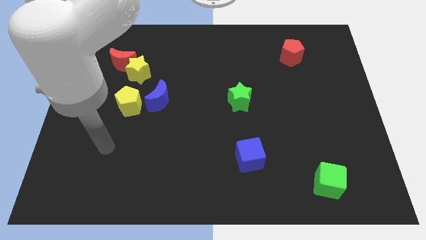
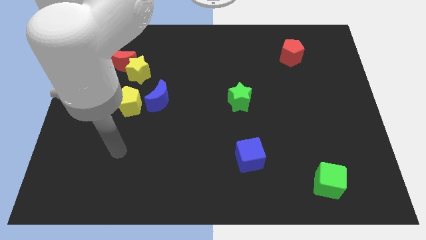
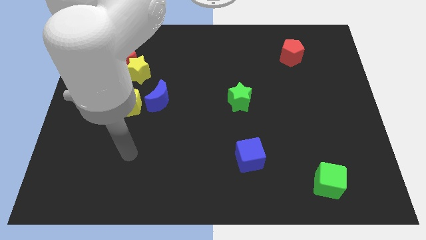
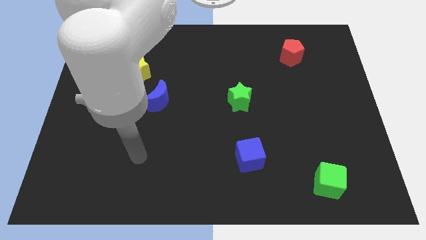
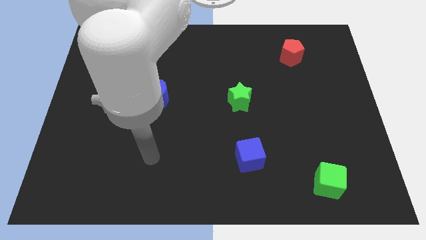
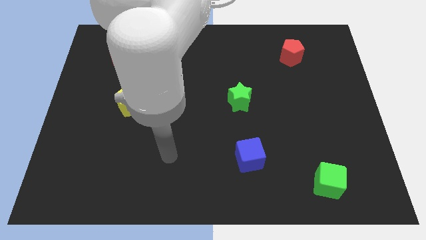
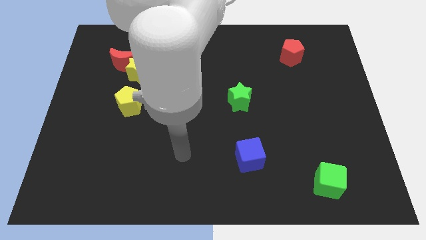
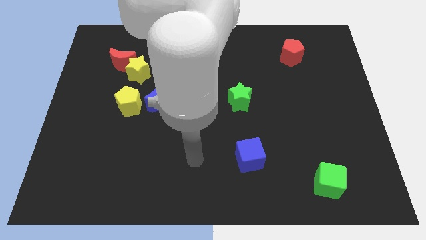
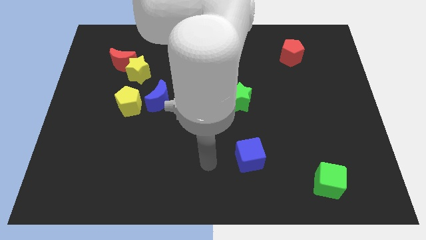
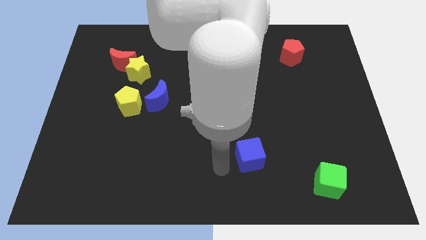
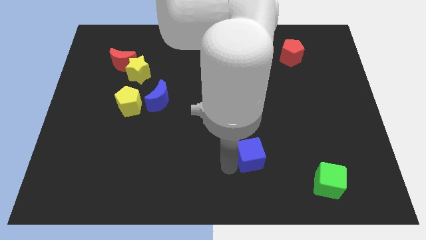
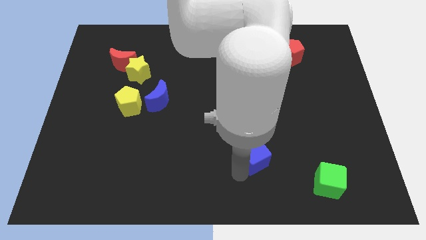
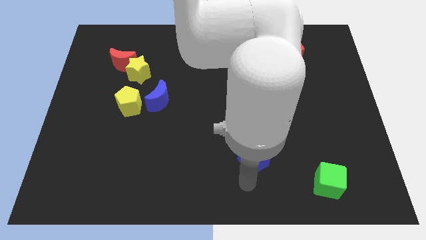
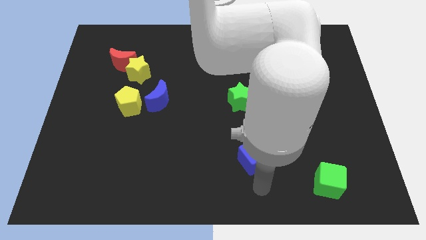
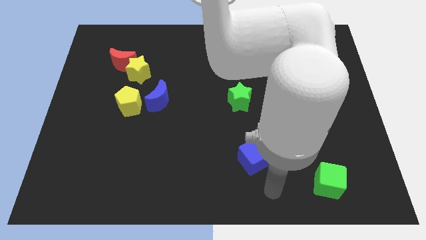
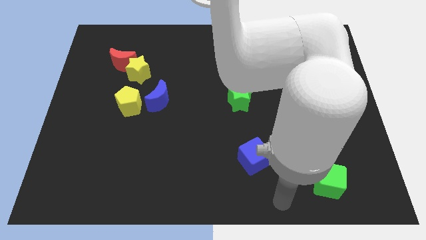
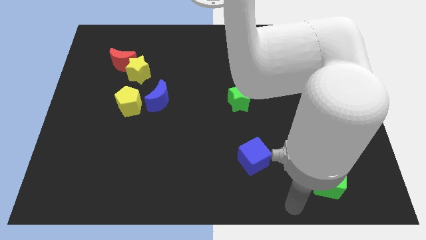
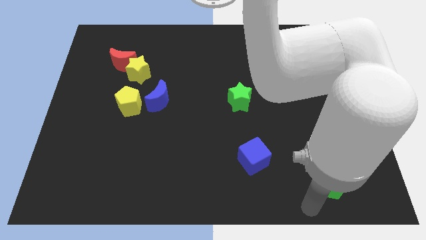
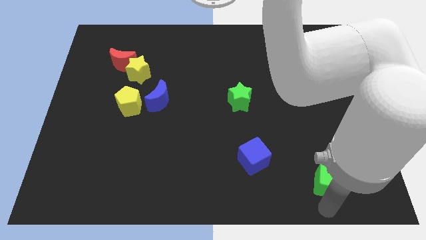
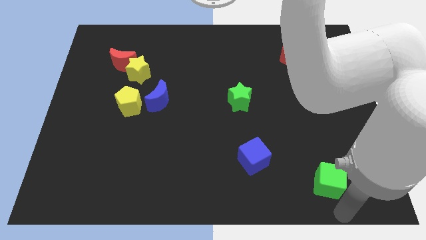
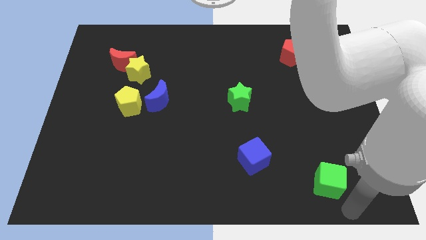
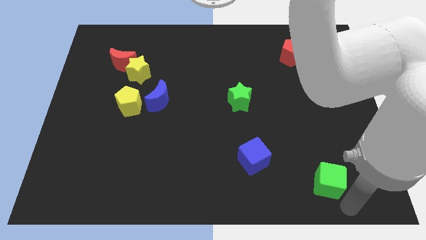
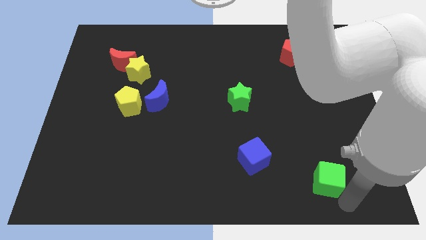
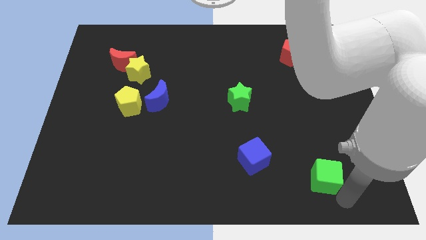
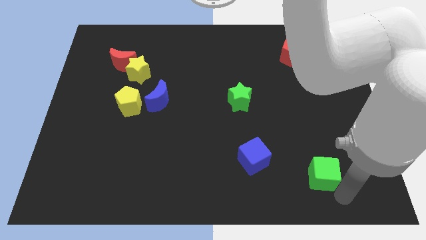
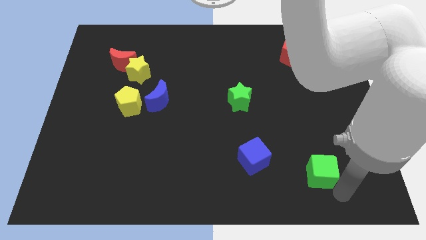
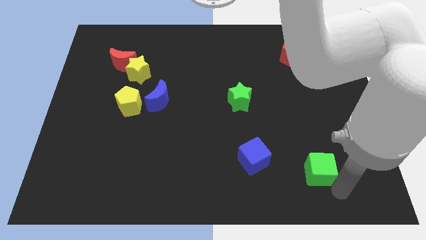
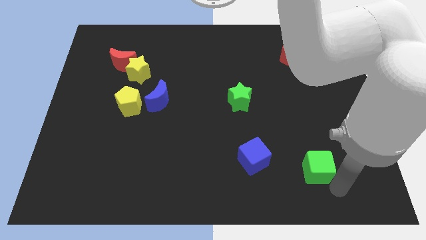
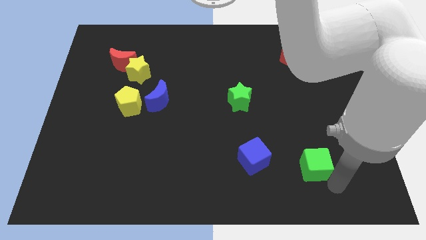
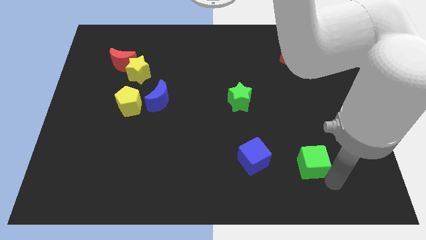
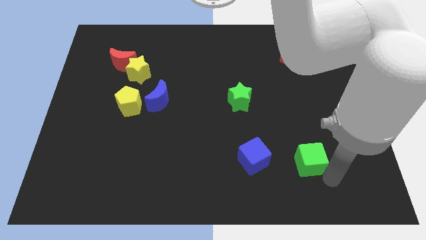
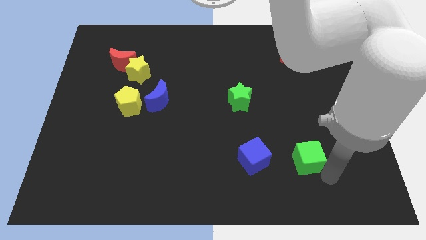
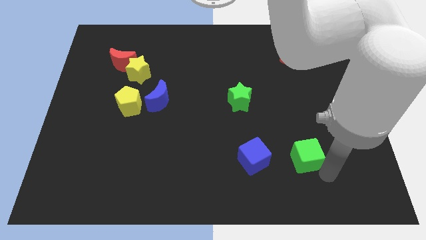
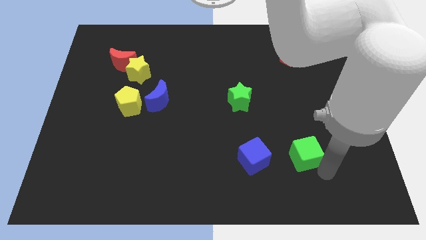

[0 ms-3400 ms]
move the green cube upwards and then left a bit

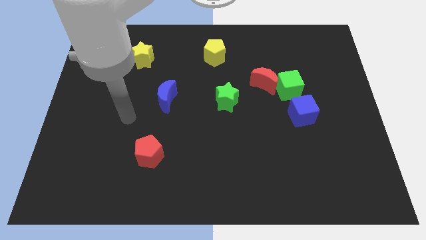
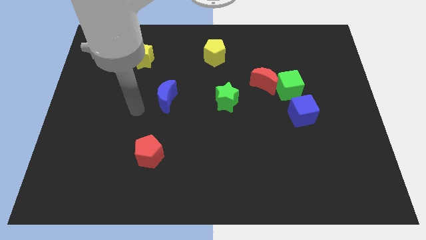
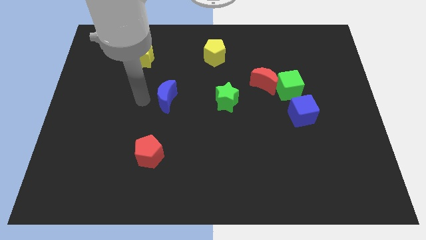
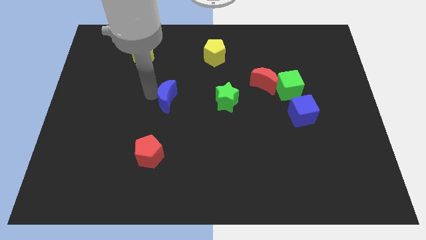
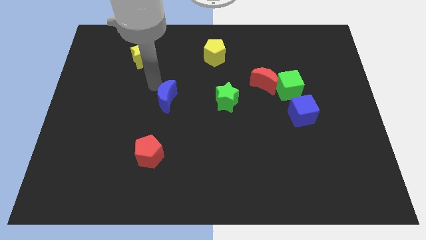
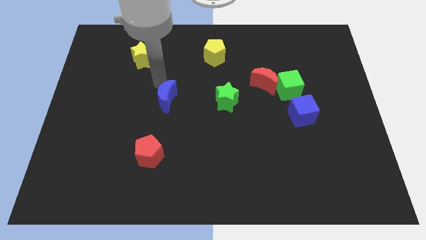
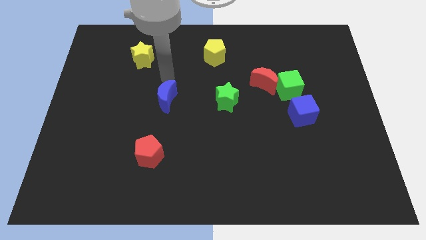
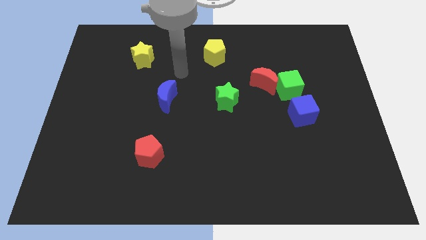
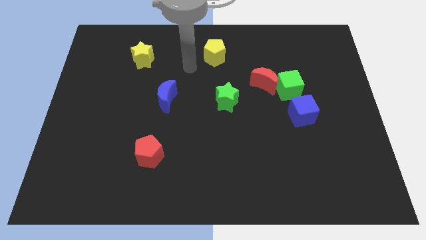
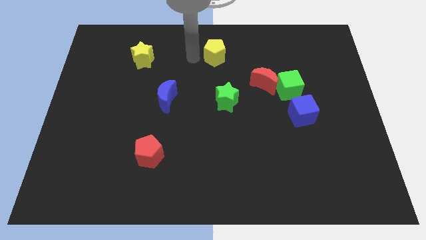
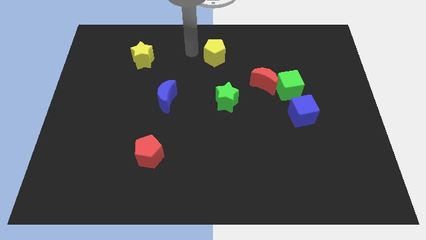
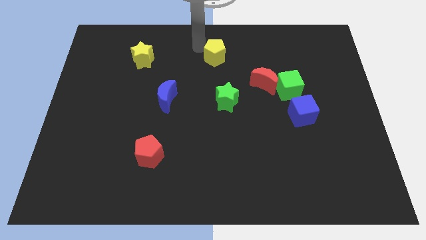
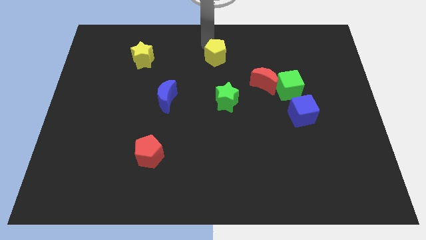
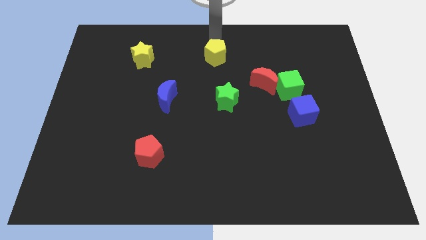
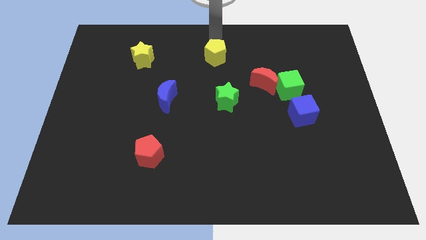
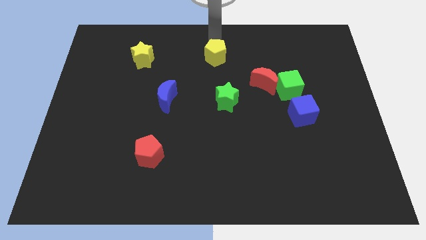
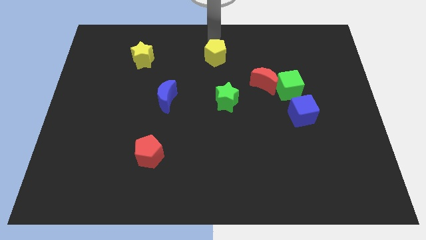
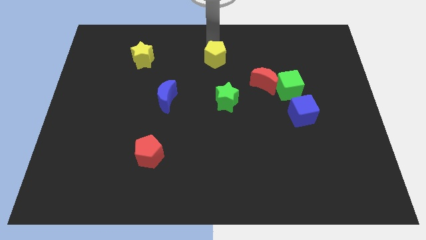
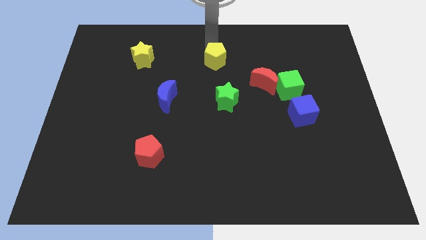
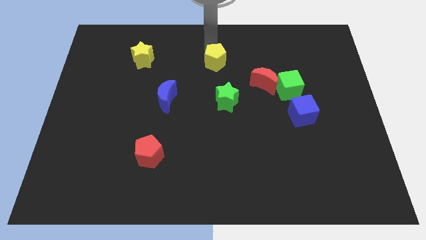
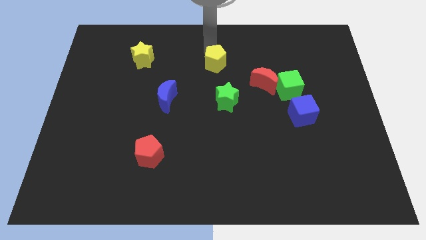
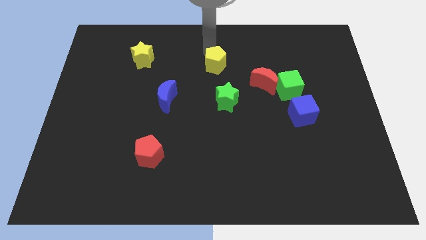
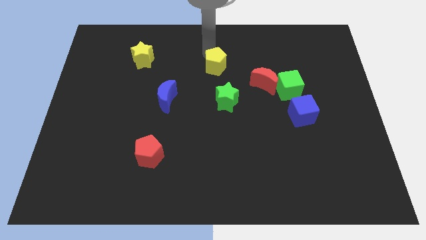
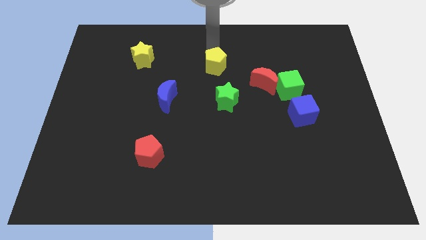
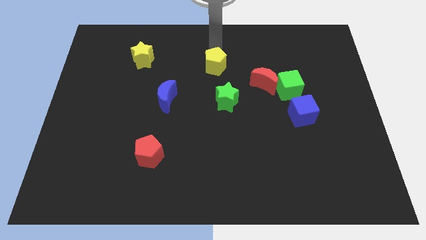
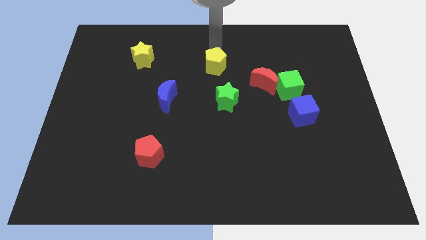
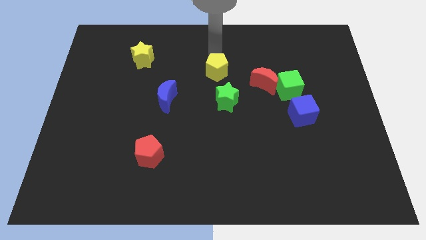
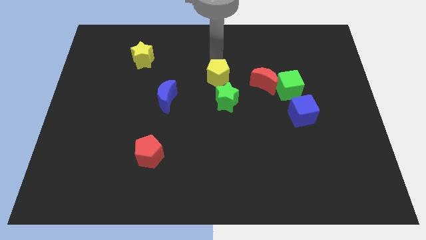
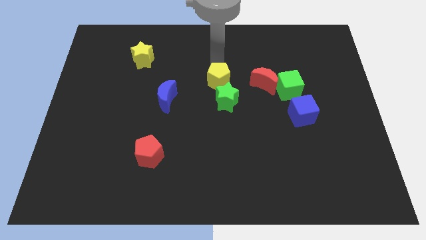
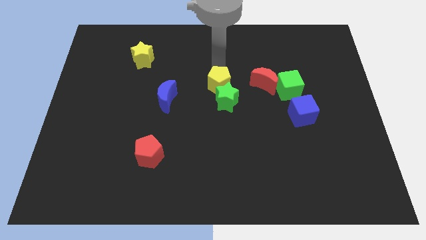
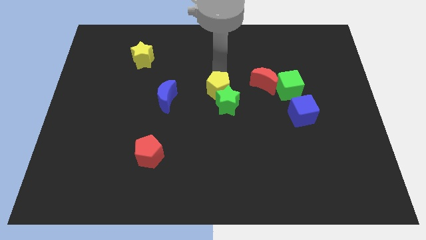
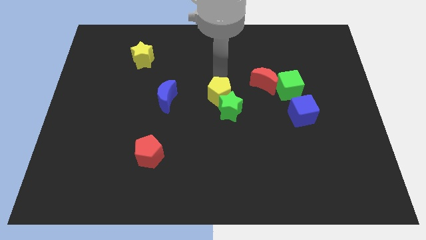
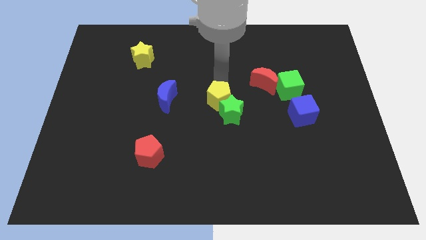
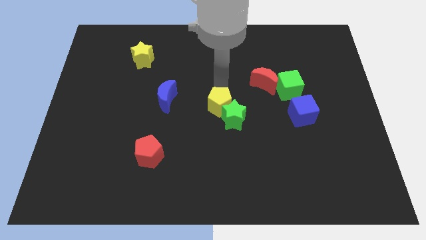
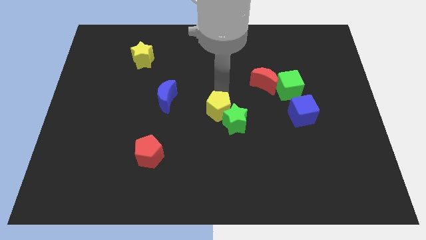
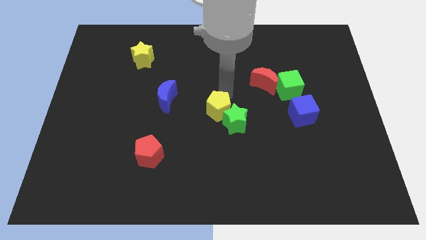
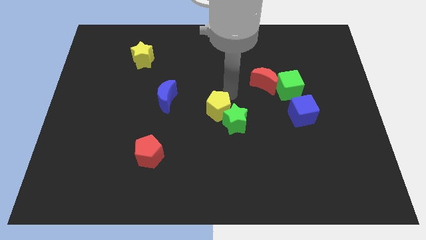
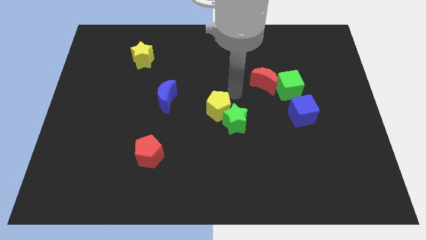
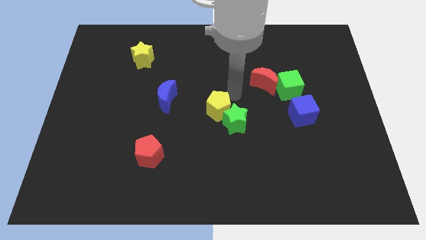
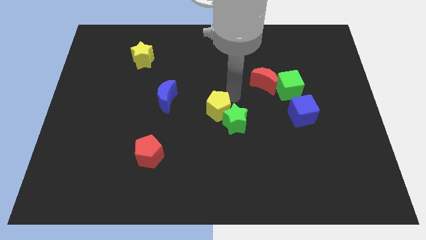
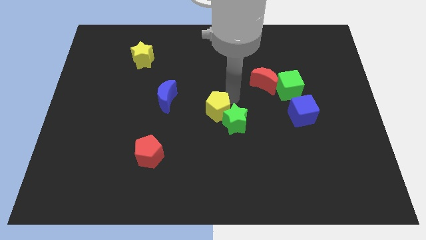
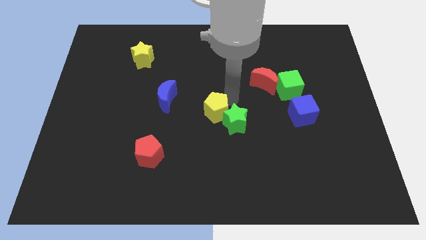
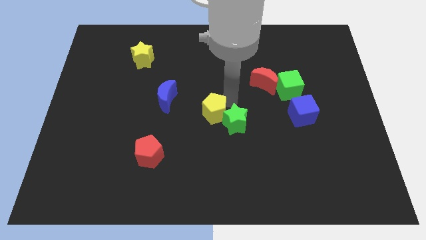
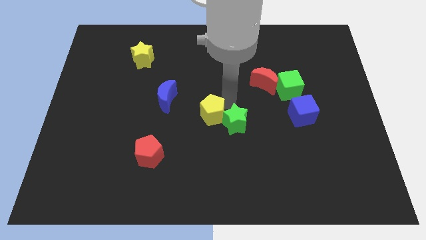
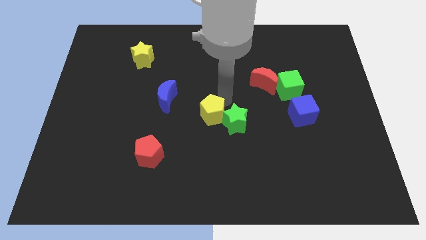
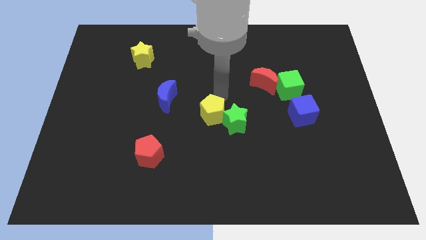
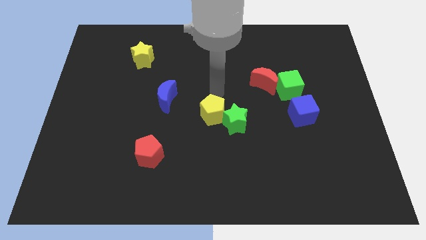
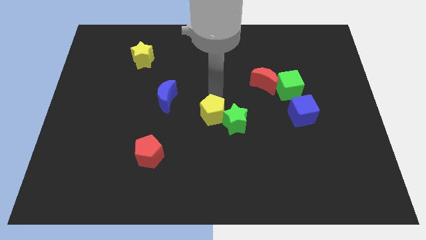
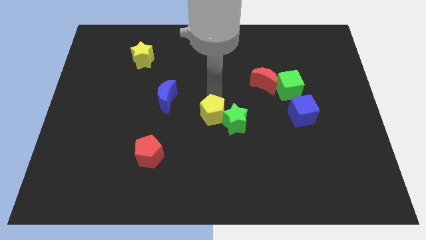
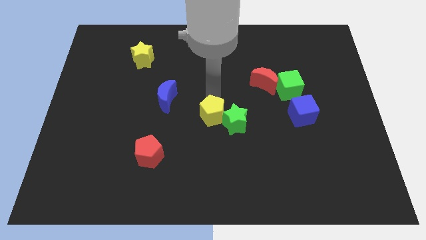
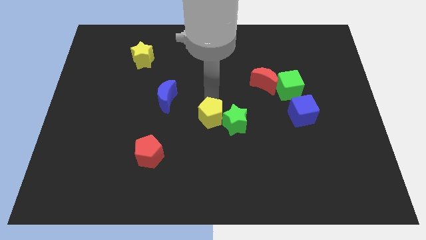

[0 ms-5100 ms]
move the yellow pentagon down
